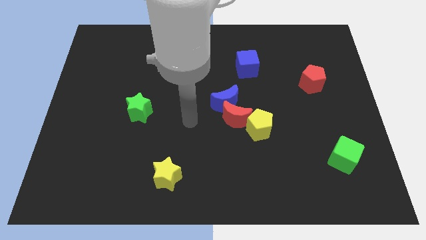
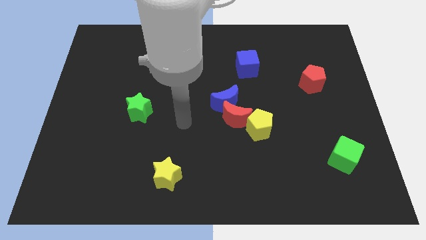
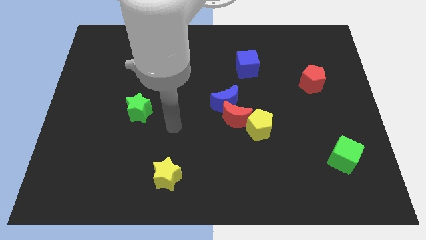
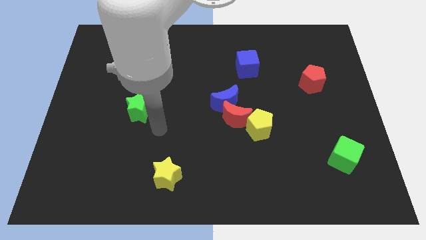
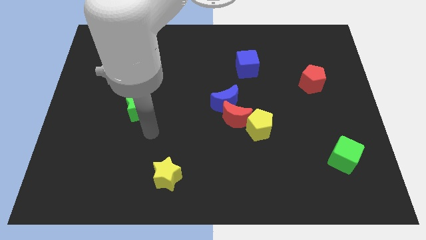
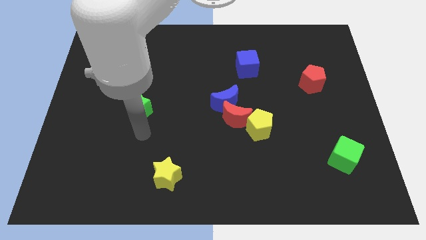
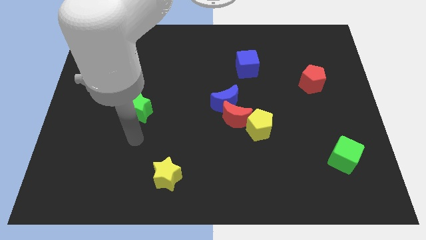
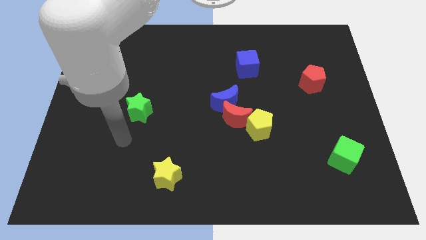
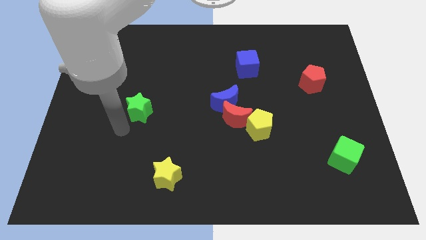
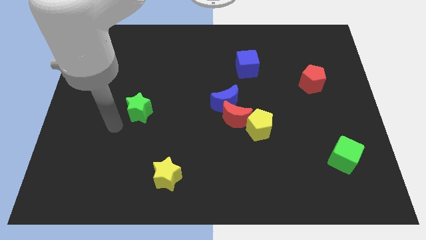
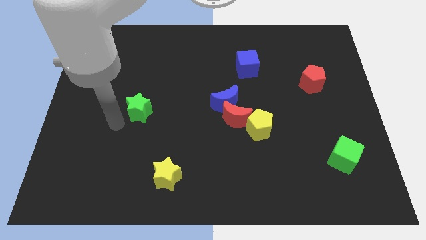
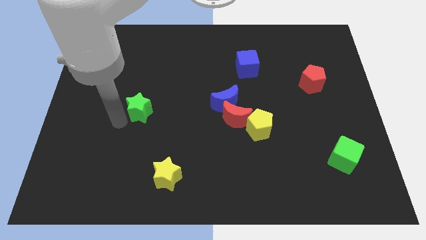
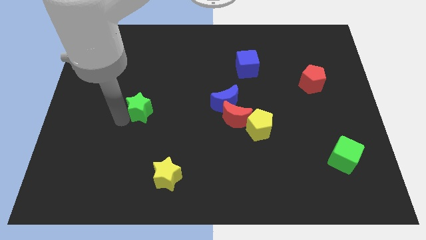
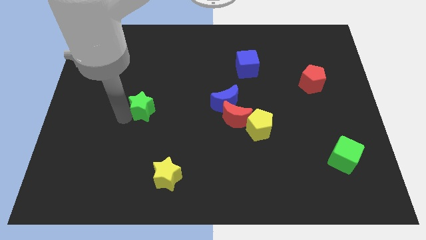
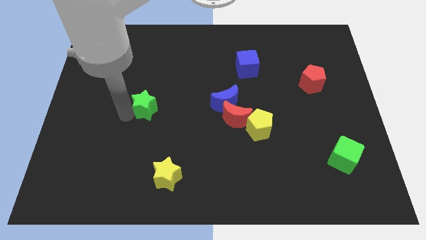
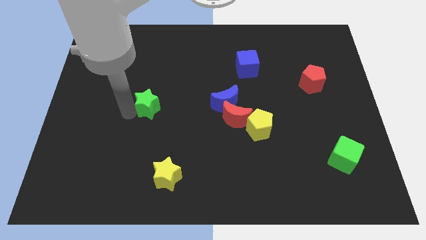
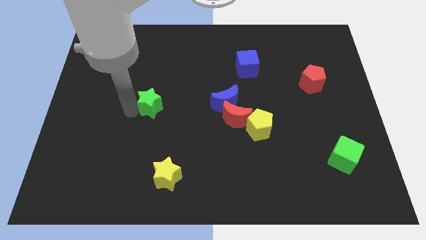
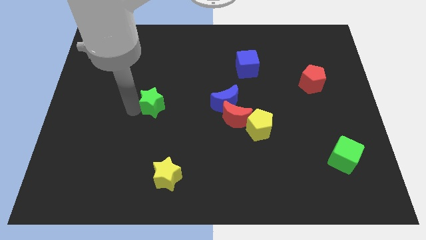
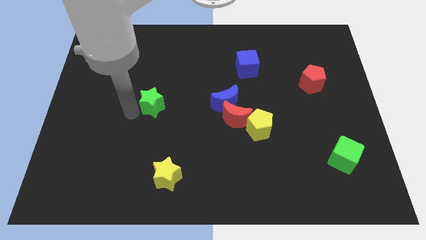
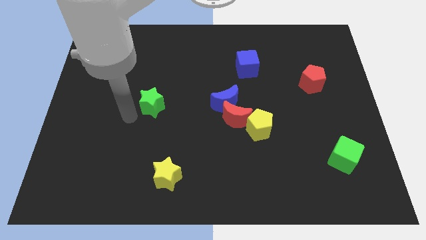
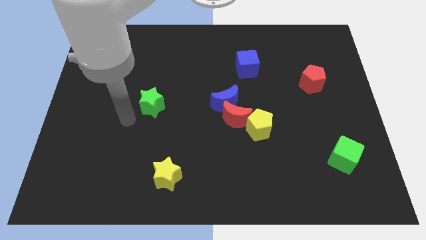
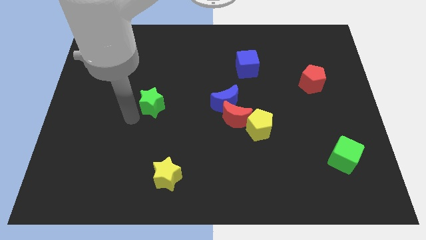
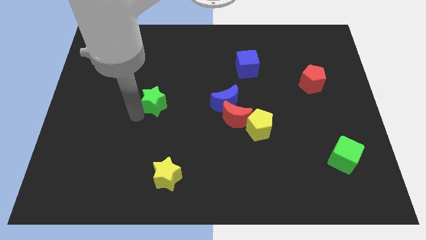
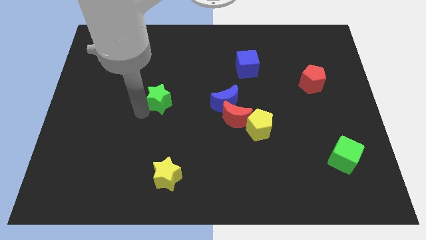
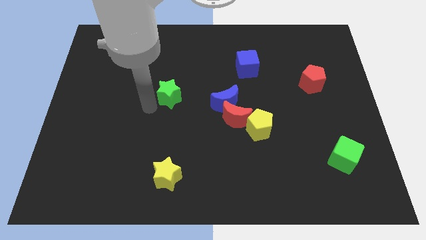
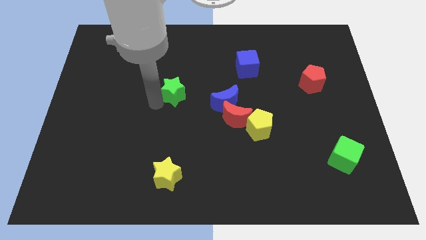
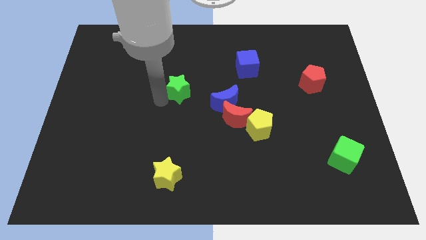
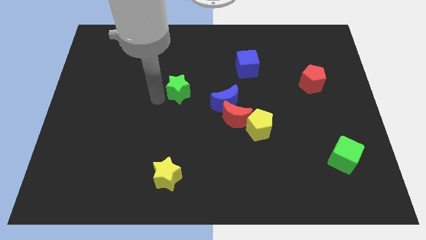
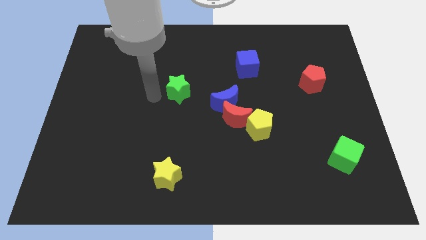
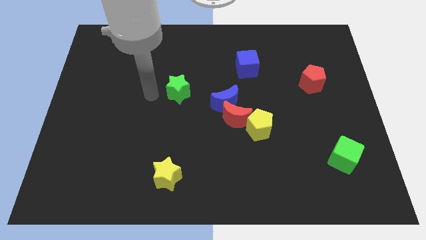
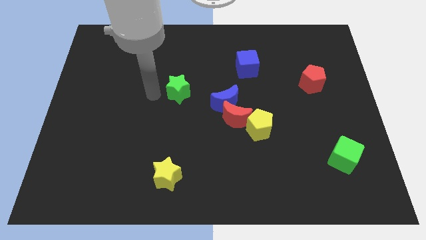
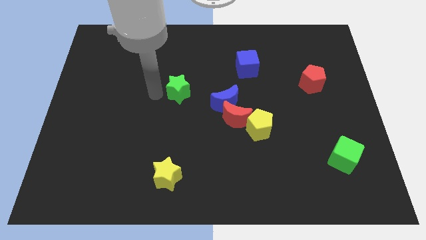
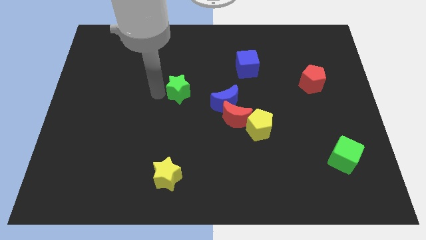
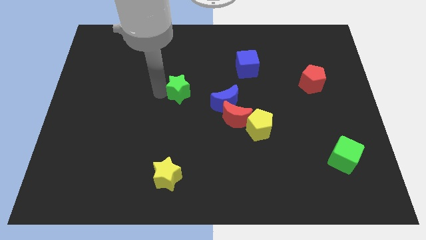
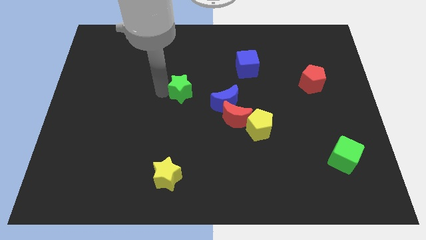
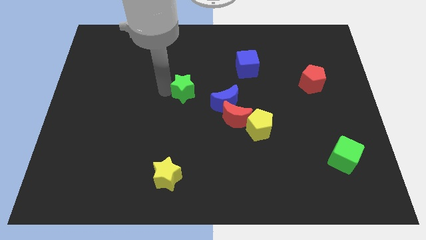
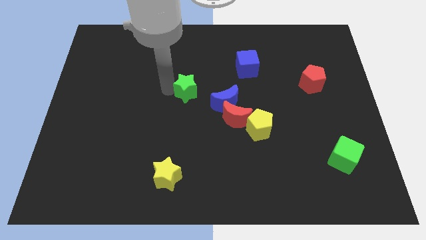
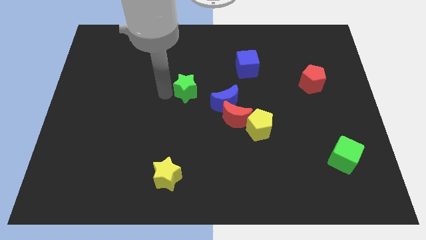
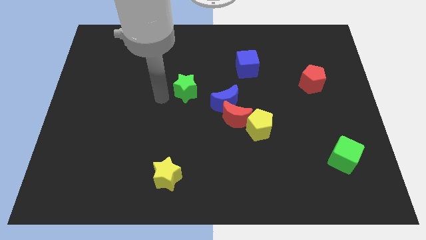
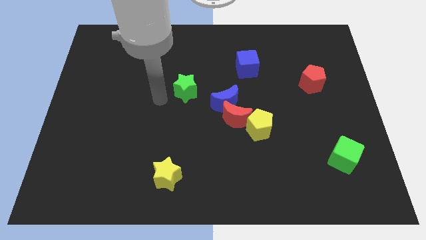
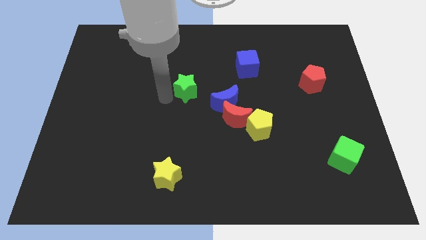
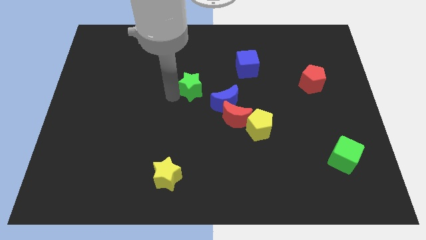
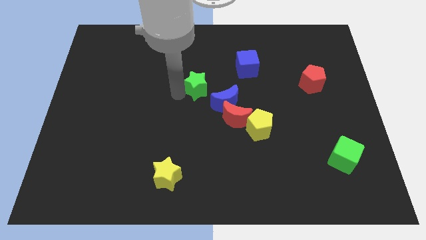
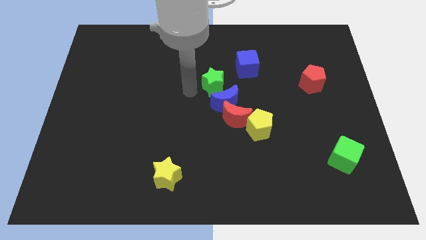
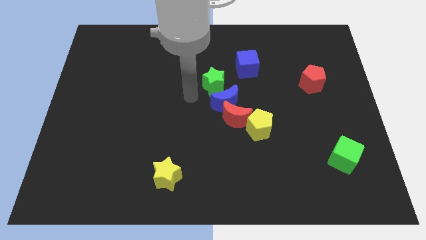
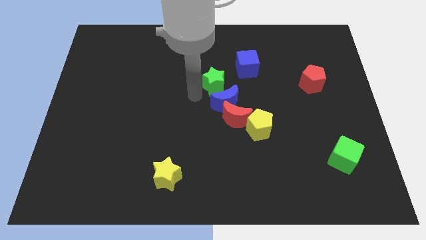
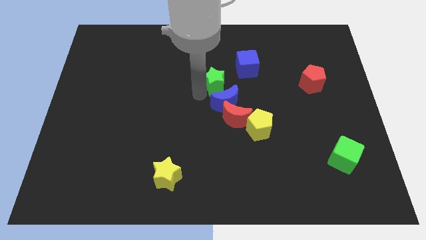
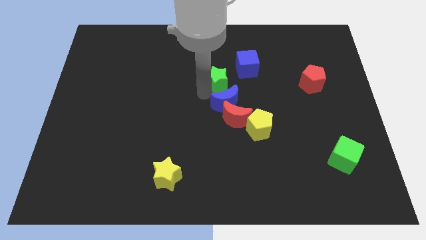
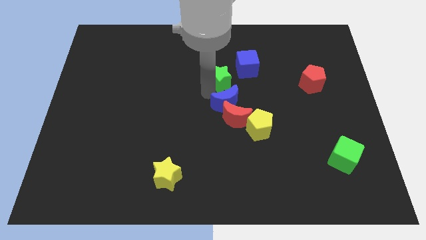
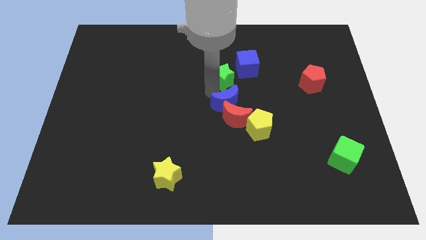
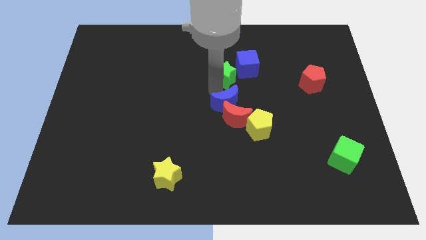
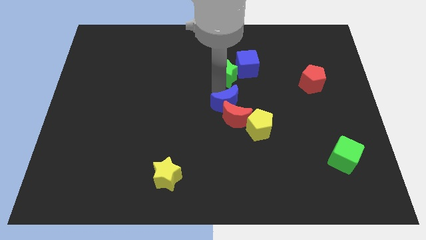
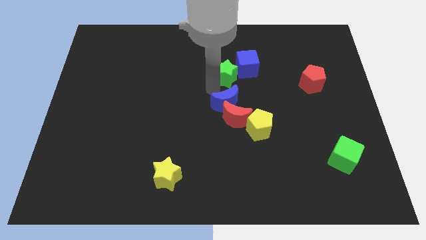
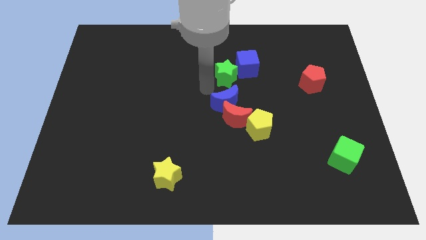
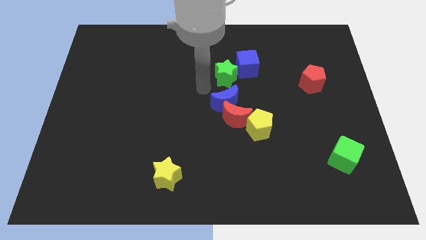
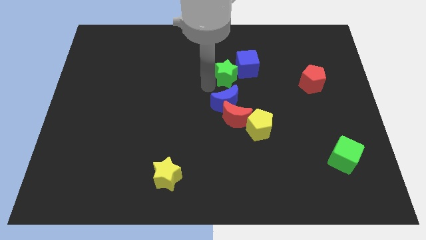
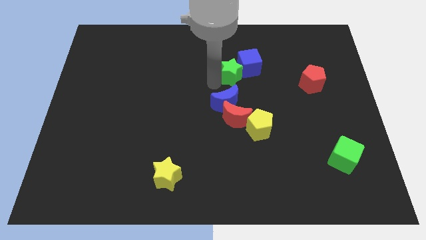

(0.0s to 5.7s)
put the green star towards the blue cube

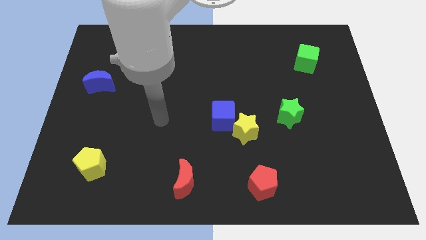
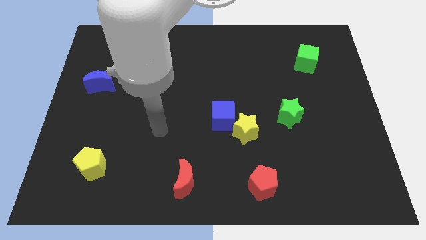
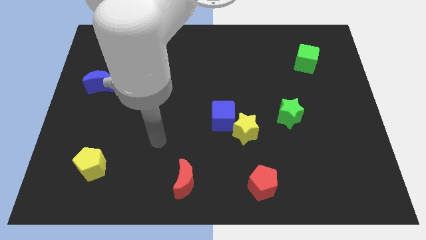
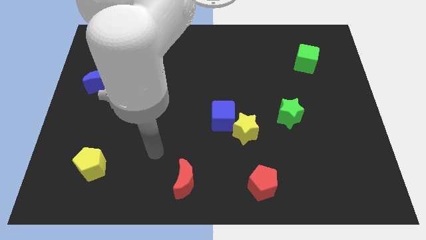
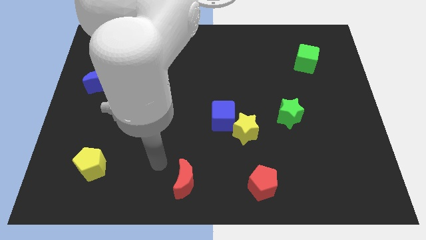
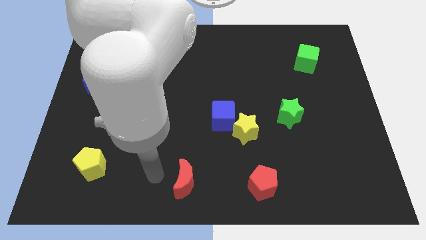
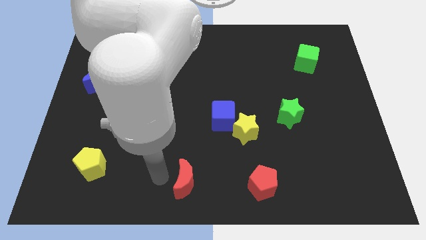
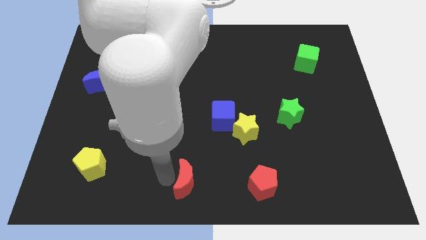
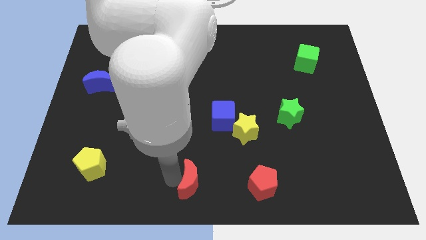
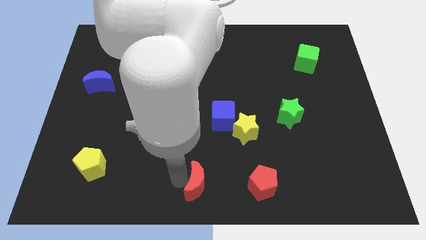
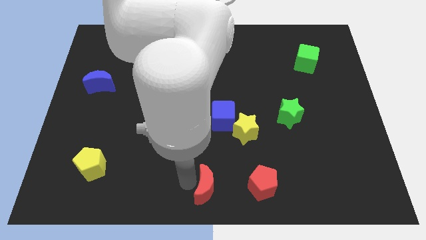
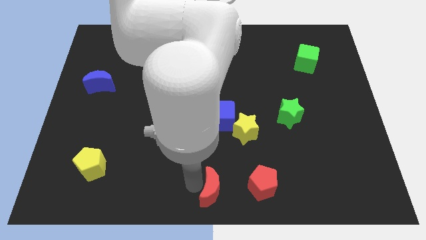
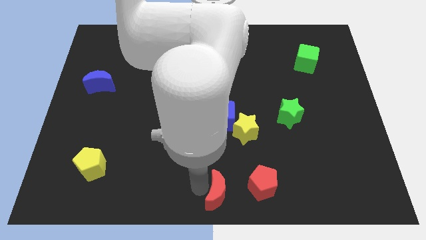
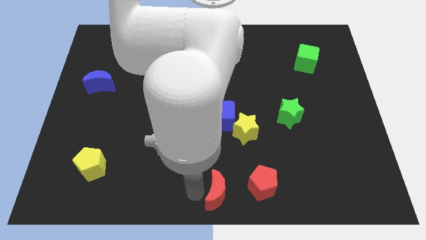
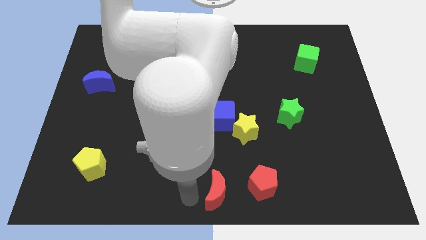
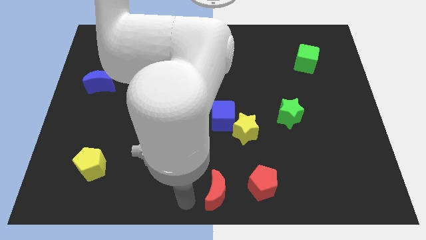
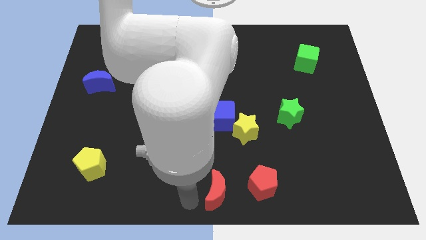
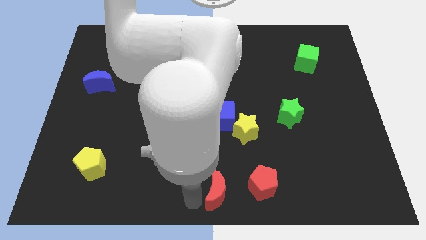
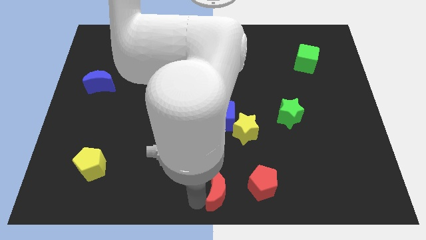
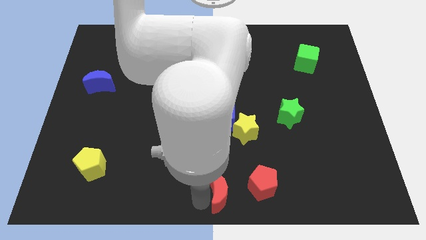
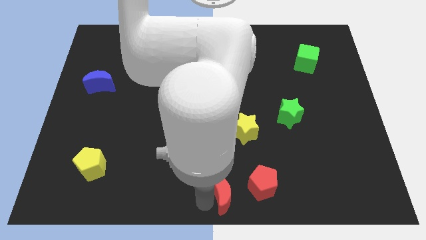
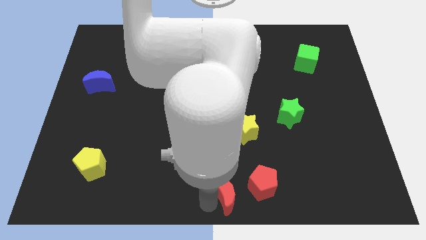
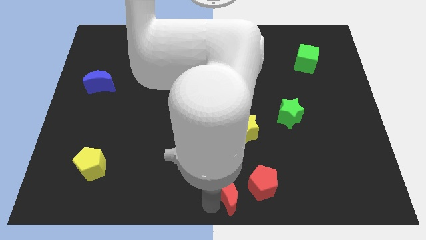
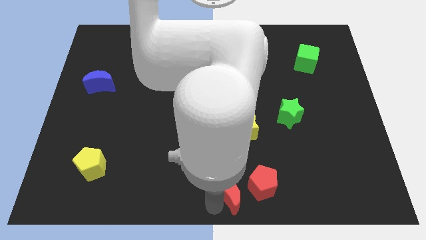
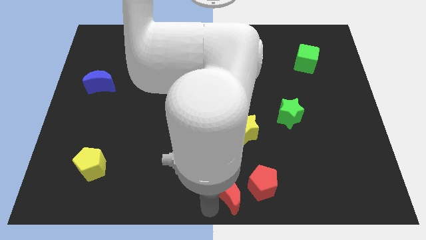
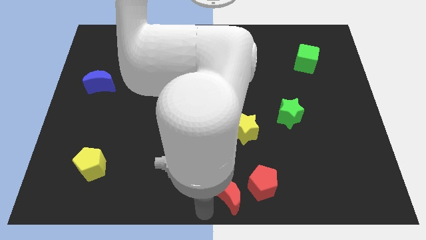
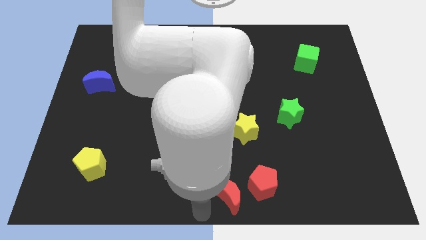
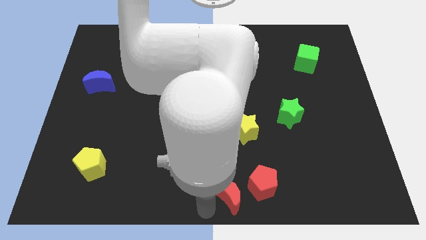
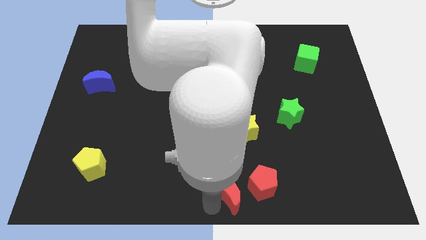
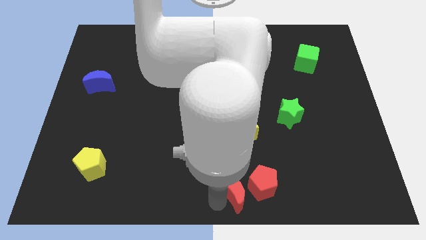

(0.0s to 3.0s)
push the red moon next to the red pentagon
